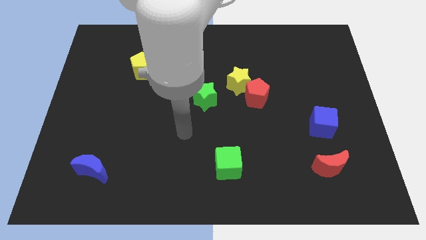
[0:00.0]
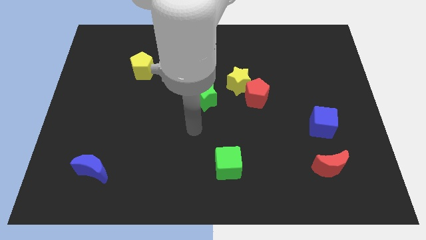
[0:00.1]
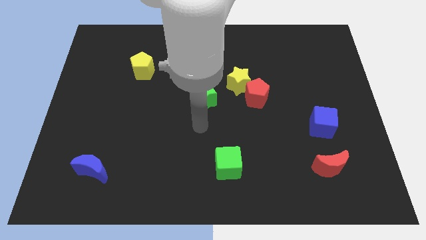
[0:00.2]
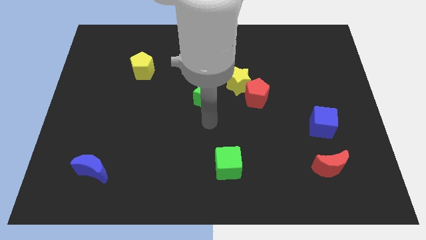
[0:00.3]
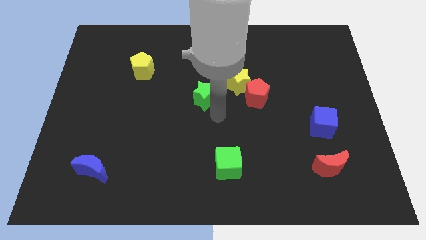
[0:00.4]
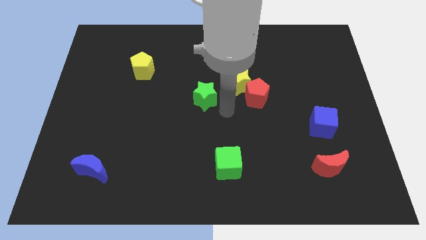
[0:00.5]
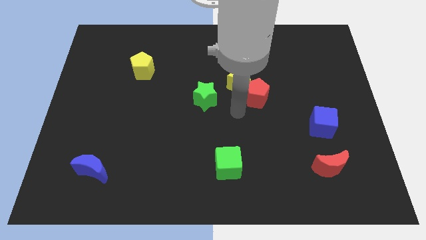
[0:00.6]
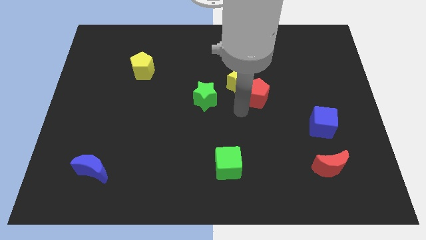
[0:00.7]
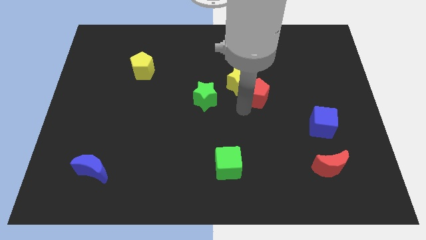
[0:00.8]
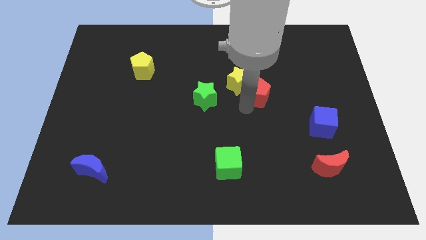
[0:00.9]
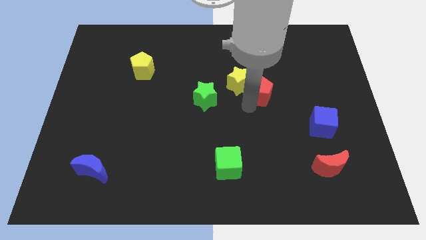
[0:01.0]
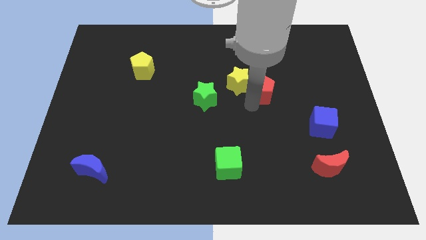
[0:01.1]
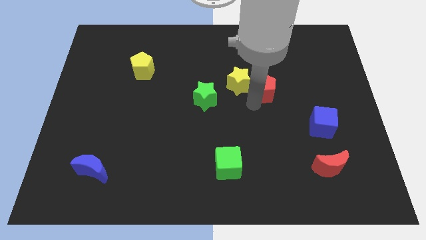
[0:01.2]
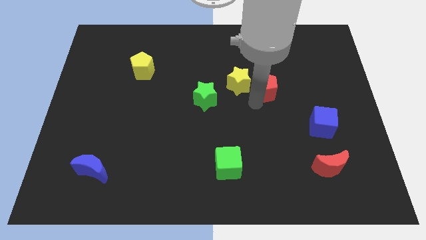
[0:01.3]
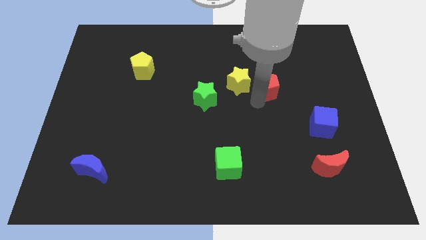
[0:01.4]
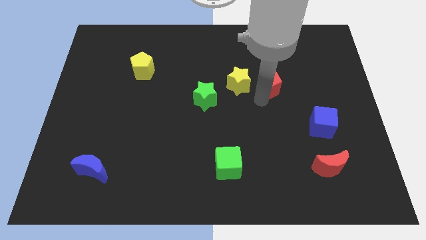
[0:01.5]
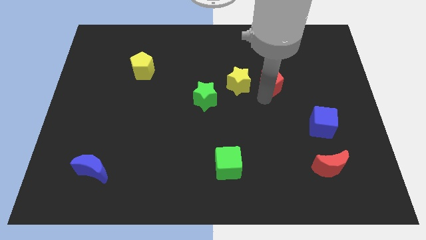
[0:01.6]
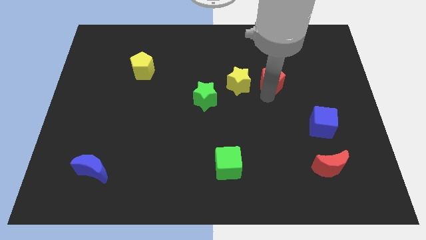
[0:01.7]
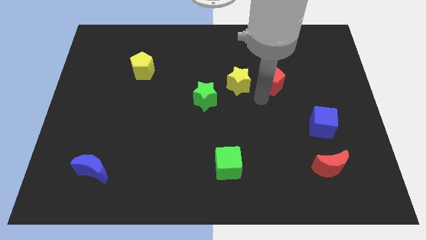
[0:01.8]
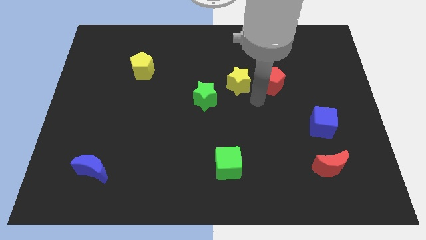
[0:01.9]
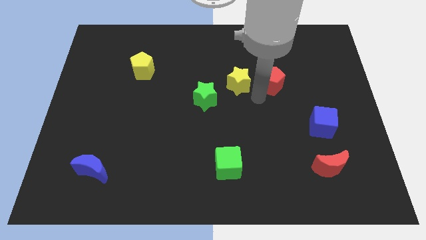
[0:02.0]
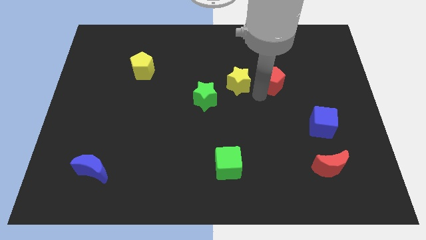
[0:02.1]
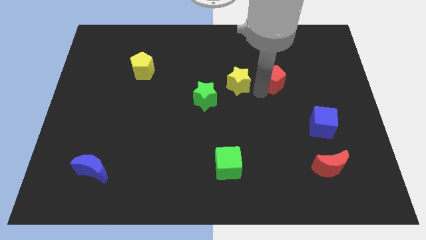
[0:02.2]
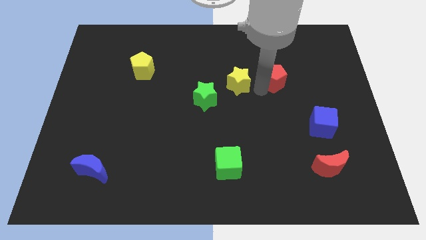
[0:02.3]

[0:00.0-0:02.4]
slightly move the red pentagon up and right

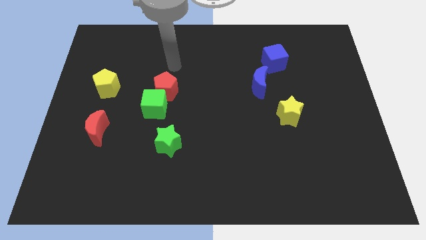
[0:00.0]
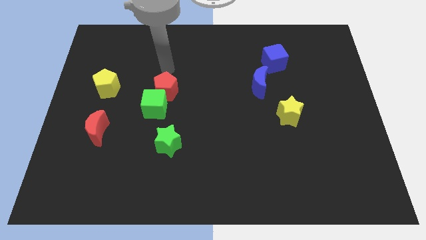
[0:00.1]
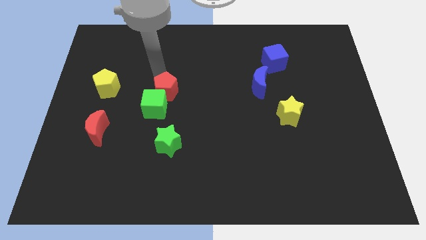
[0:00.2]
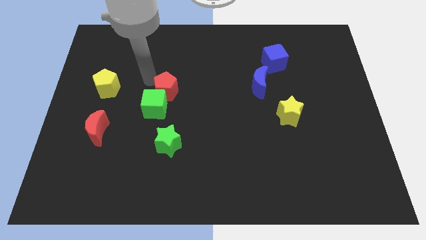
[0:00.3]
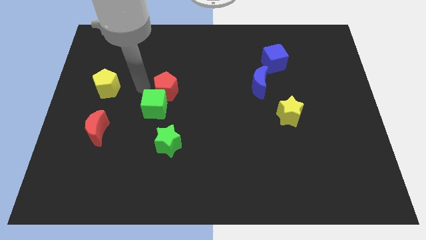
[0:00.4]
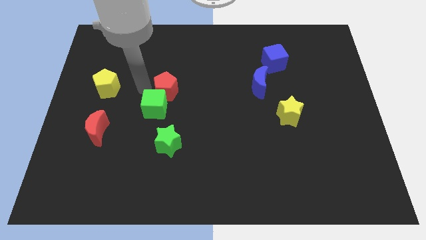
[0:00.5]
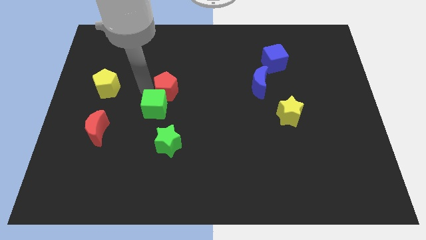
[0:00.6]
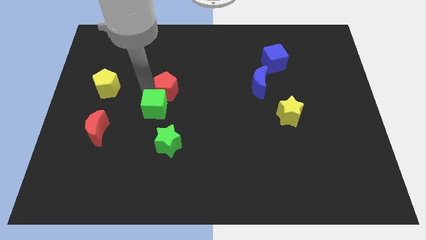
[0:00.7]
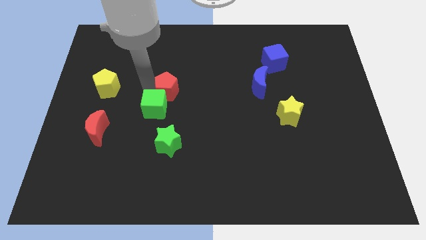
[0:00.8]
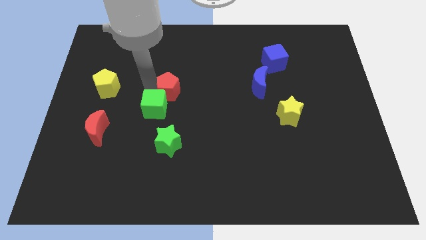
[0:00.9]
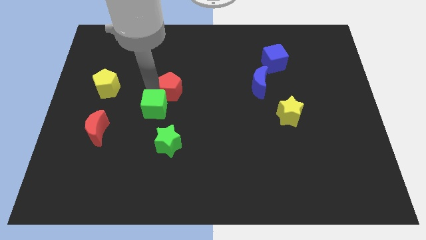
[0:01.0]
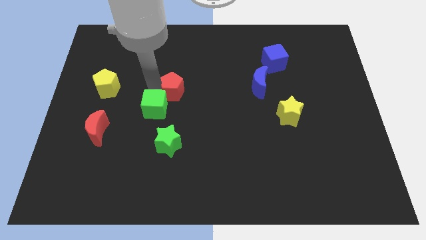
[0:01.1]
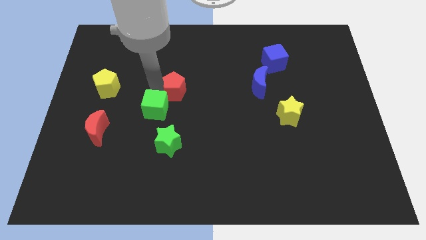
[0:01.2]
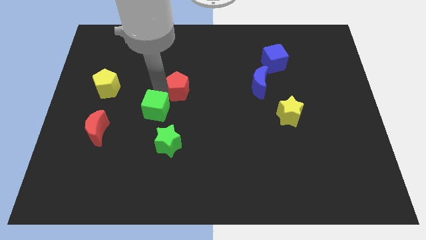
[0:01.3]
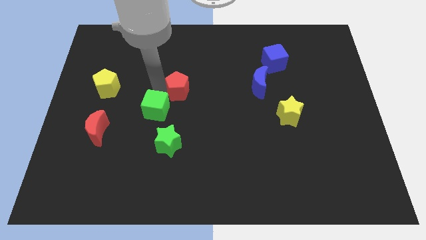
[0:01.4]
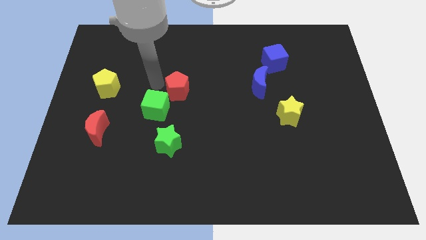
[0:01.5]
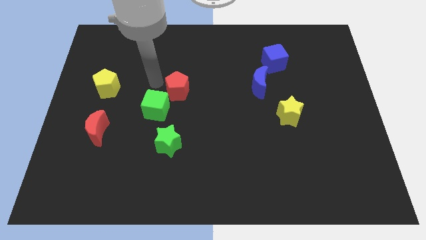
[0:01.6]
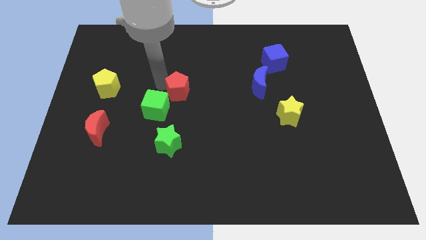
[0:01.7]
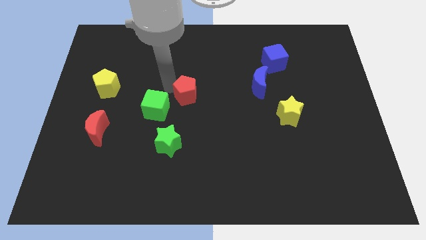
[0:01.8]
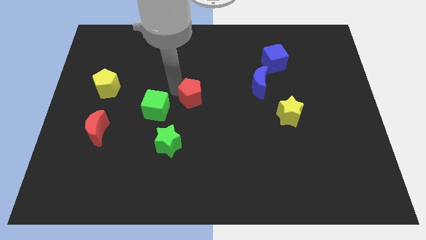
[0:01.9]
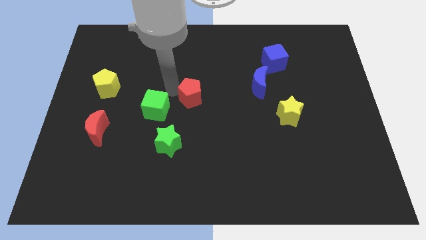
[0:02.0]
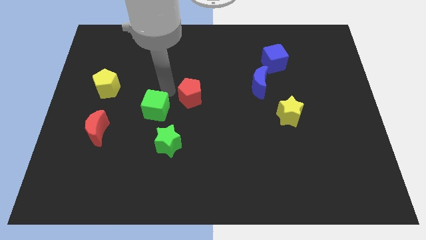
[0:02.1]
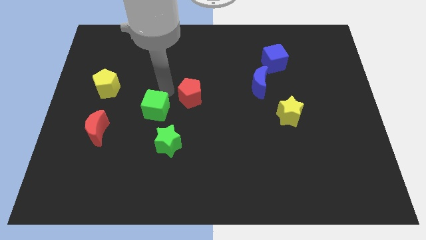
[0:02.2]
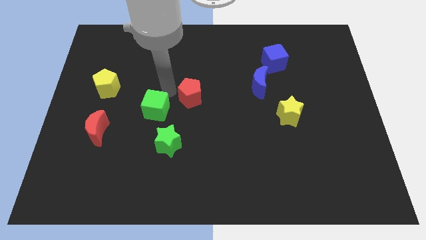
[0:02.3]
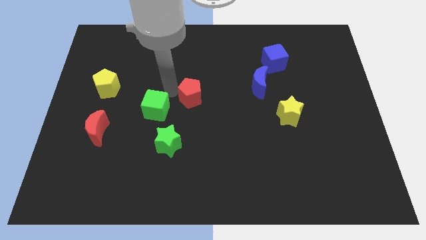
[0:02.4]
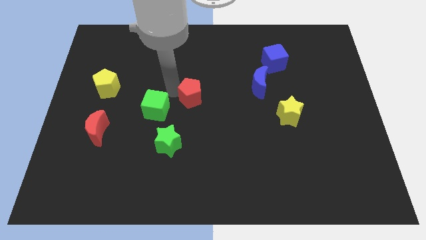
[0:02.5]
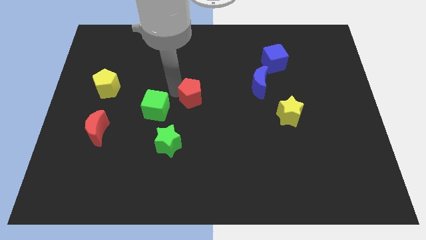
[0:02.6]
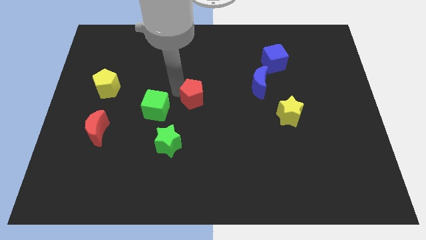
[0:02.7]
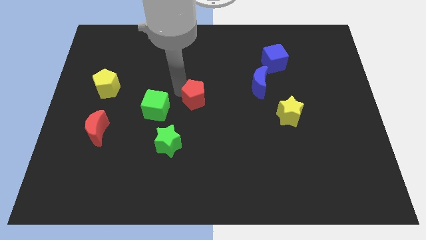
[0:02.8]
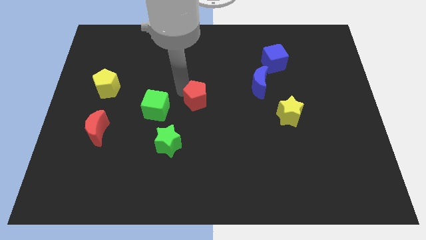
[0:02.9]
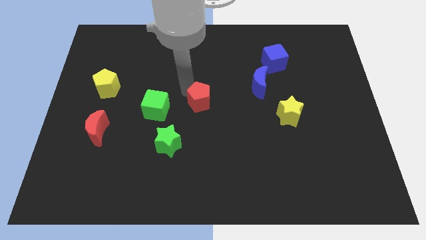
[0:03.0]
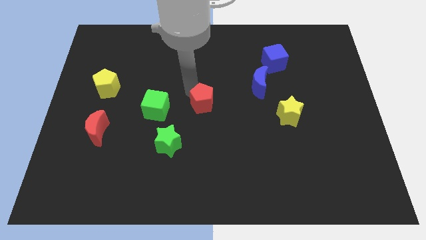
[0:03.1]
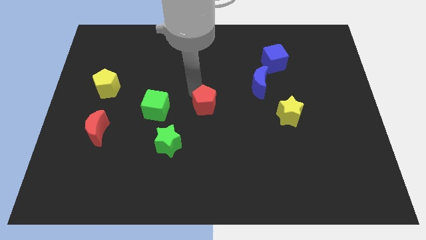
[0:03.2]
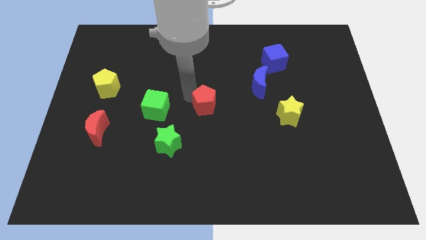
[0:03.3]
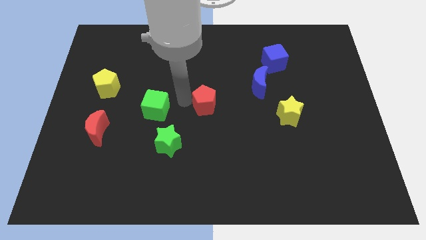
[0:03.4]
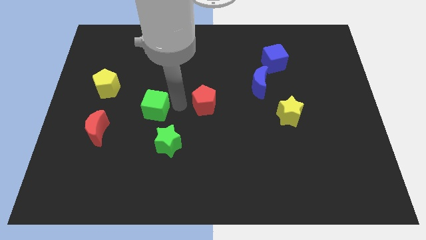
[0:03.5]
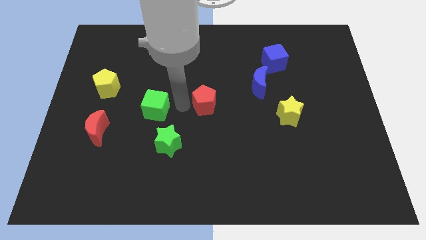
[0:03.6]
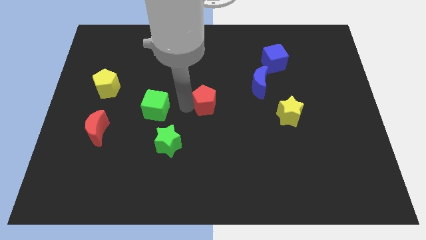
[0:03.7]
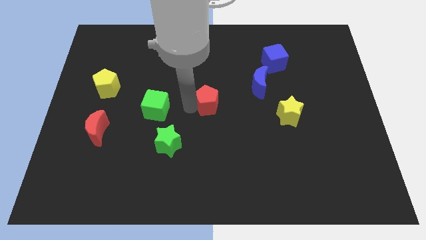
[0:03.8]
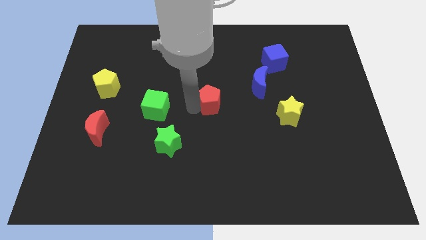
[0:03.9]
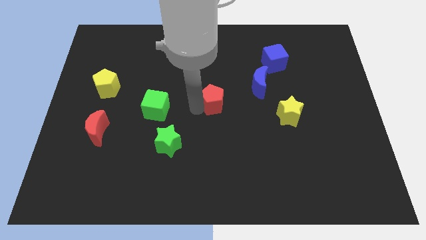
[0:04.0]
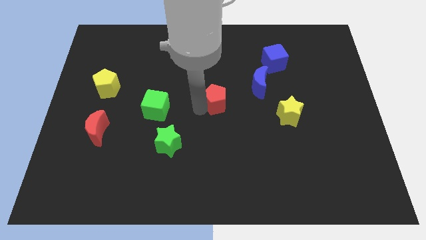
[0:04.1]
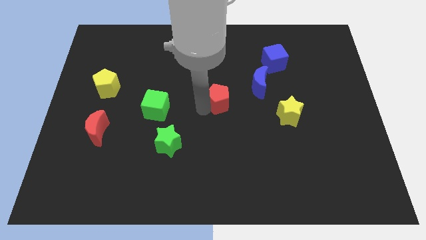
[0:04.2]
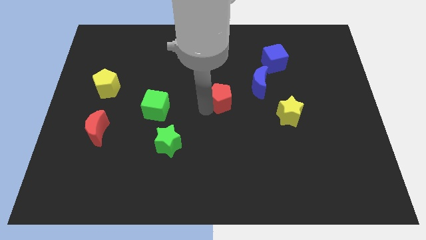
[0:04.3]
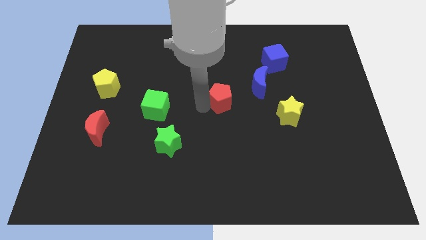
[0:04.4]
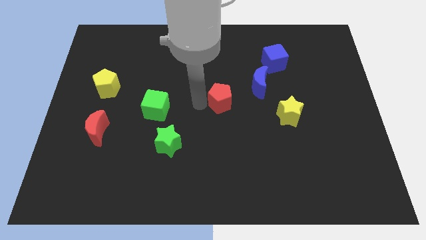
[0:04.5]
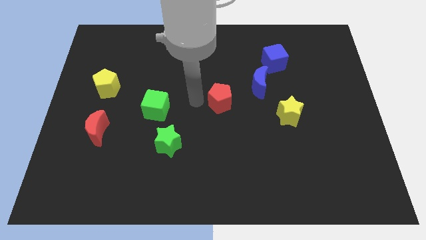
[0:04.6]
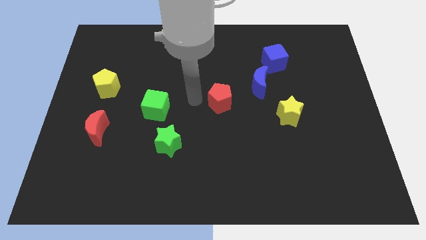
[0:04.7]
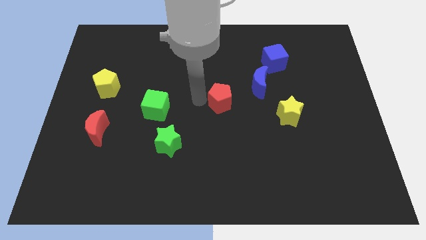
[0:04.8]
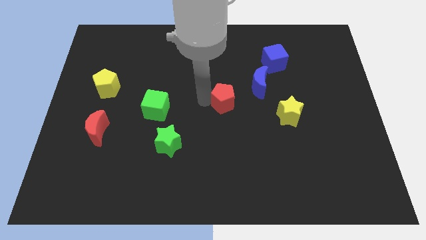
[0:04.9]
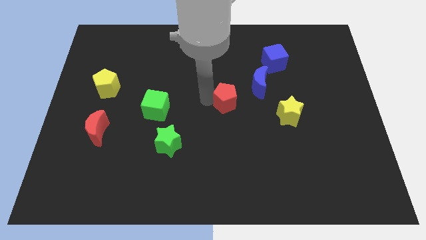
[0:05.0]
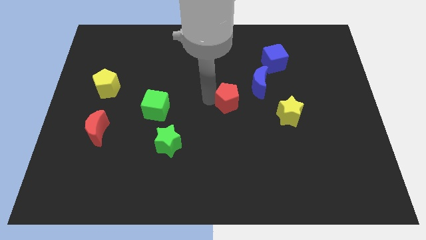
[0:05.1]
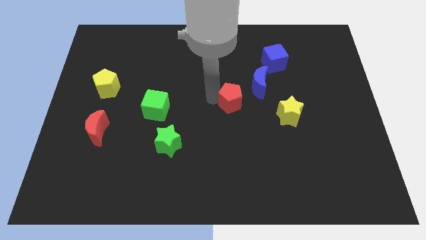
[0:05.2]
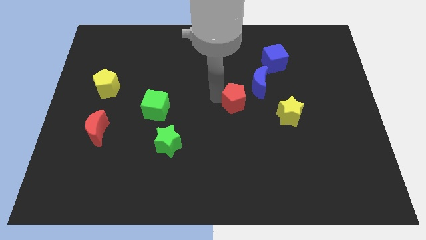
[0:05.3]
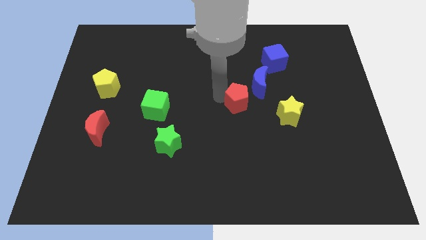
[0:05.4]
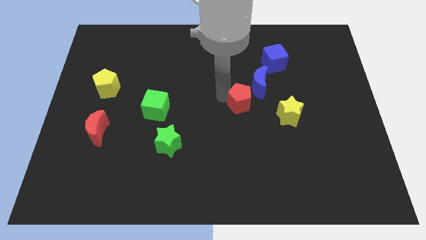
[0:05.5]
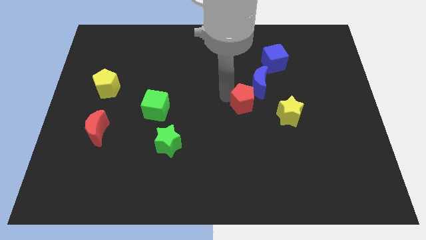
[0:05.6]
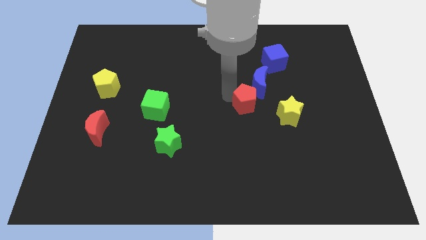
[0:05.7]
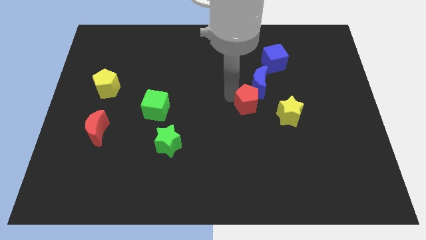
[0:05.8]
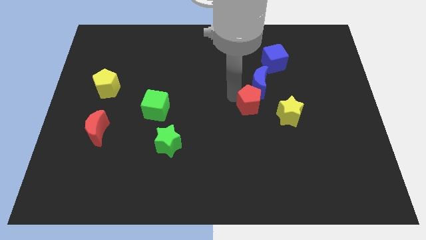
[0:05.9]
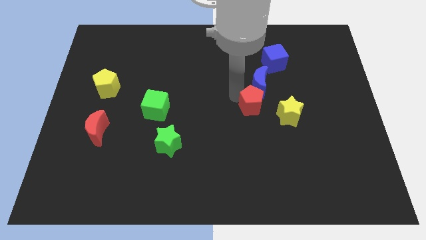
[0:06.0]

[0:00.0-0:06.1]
move the red pentagon to the right
